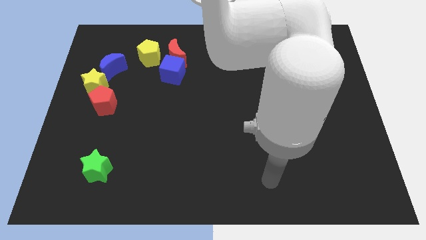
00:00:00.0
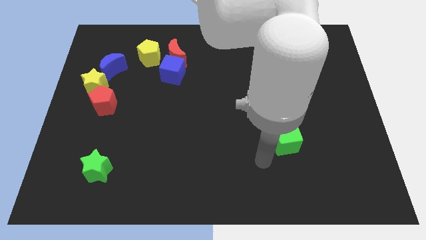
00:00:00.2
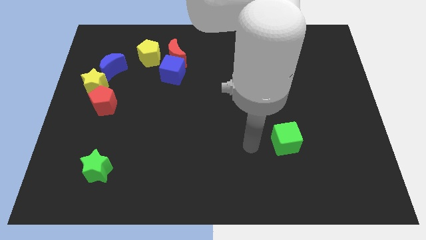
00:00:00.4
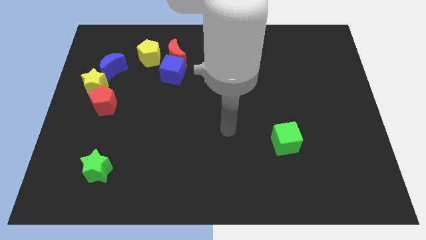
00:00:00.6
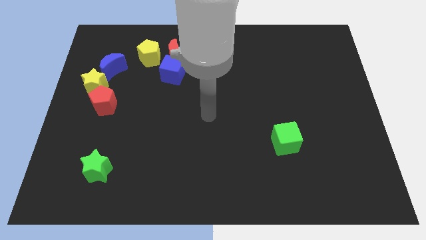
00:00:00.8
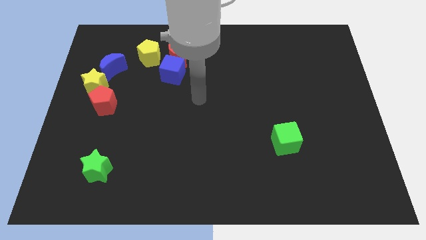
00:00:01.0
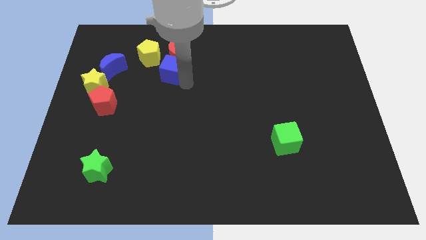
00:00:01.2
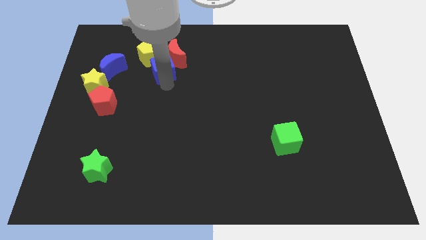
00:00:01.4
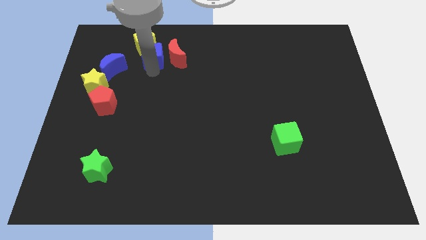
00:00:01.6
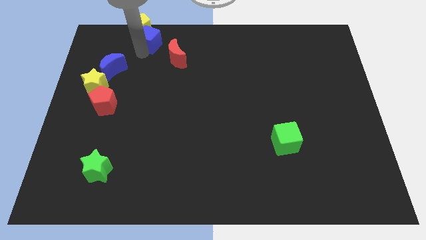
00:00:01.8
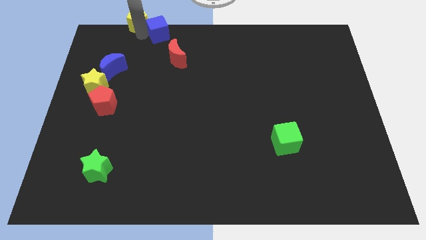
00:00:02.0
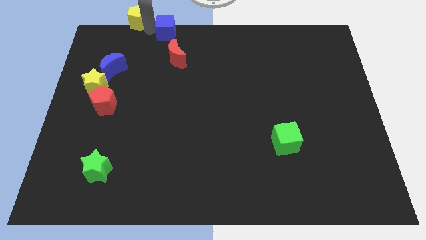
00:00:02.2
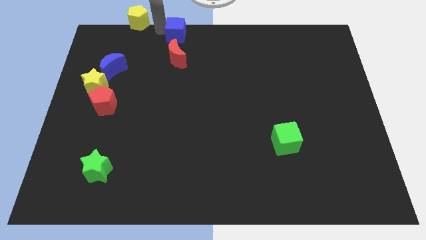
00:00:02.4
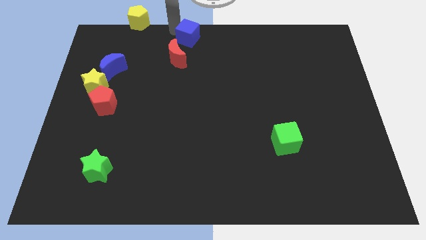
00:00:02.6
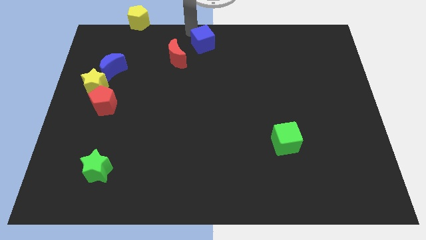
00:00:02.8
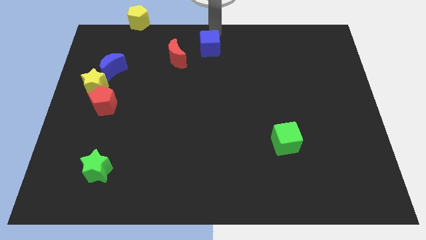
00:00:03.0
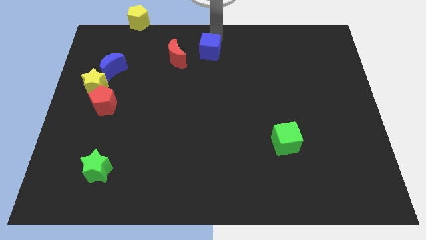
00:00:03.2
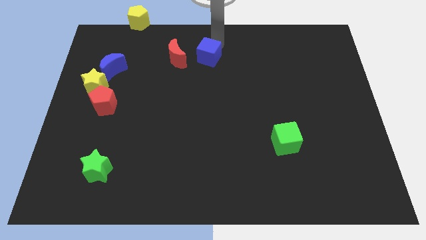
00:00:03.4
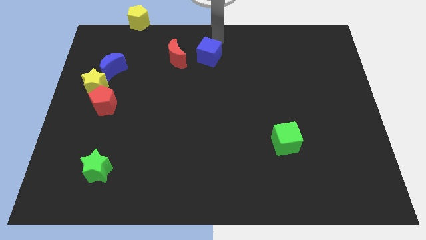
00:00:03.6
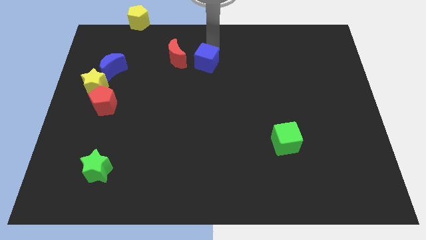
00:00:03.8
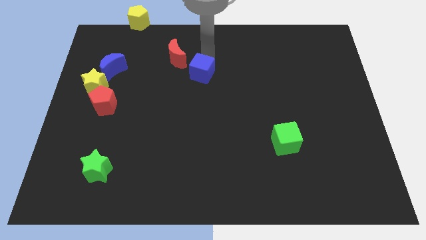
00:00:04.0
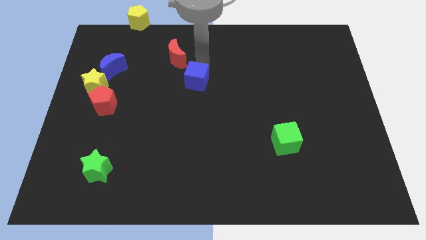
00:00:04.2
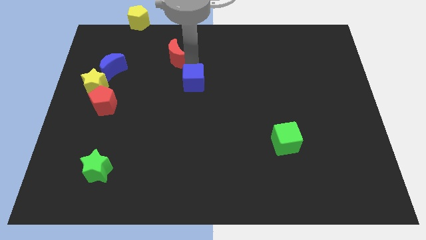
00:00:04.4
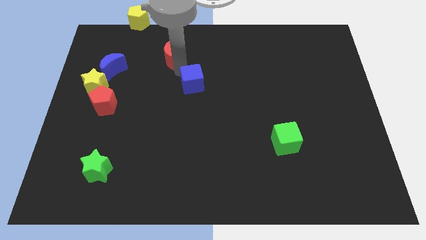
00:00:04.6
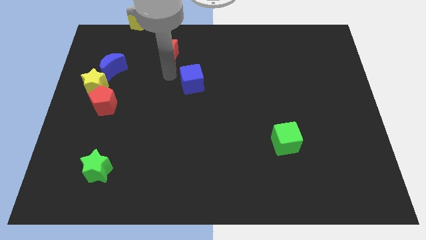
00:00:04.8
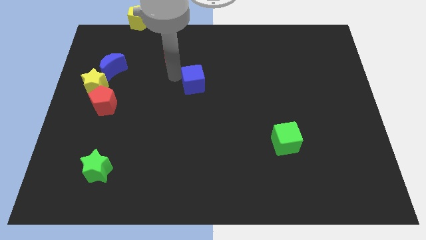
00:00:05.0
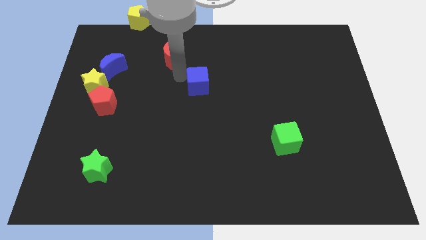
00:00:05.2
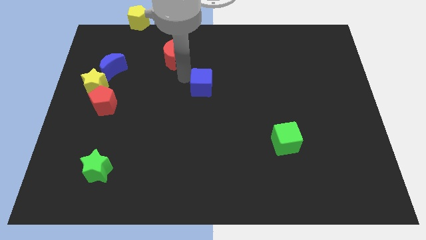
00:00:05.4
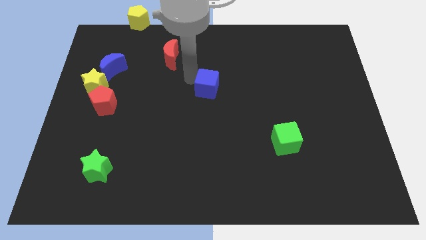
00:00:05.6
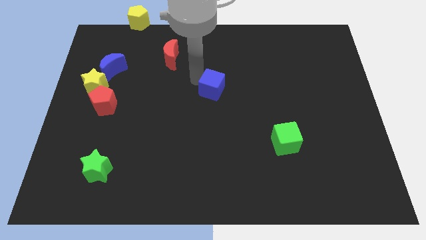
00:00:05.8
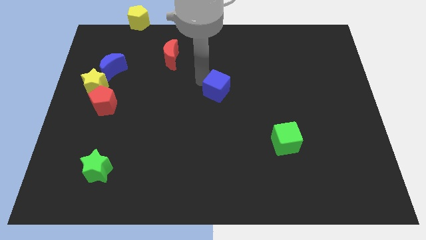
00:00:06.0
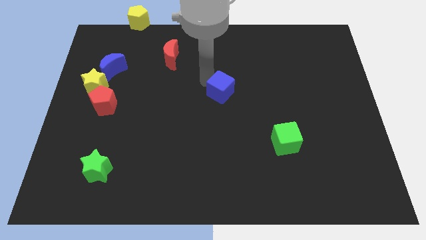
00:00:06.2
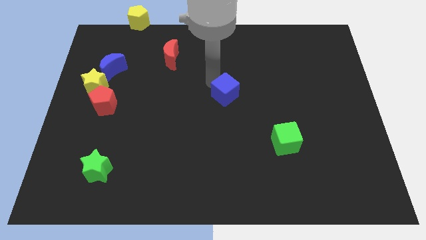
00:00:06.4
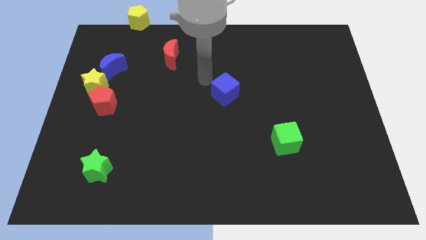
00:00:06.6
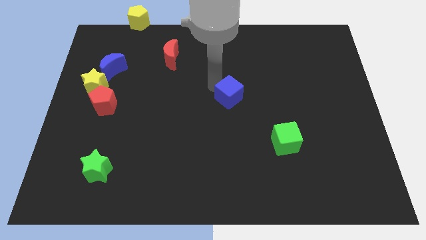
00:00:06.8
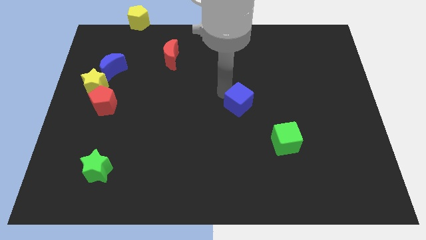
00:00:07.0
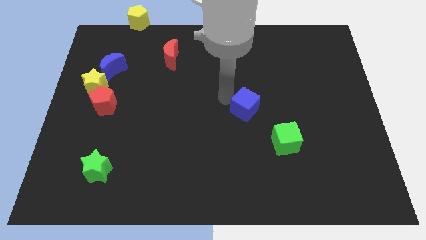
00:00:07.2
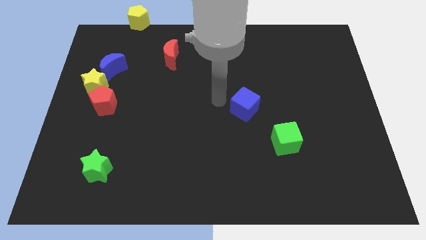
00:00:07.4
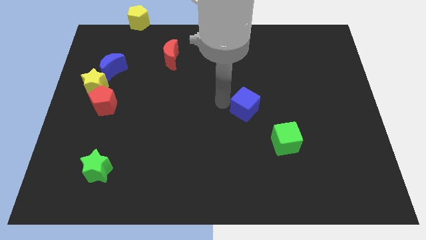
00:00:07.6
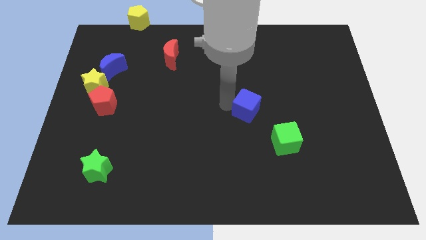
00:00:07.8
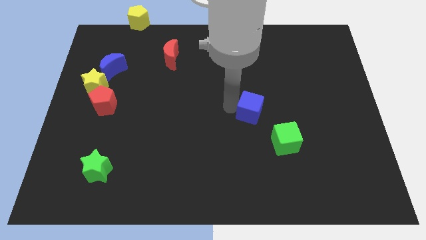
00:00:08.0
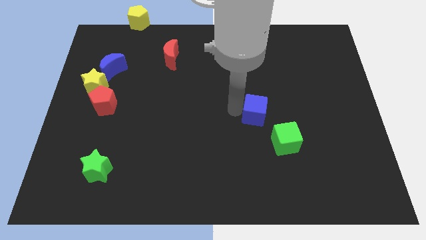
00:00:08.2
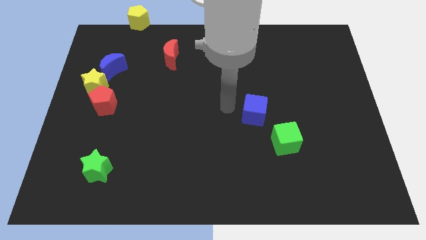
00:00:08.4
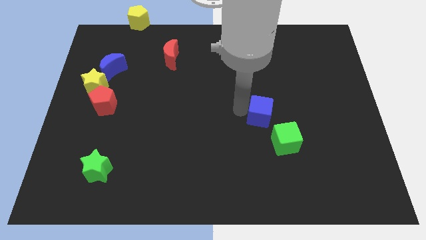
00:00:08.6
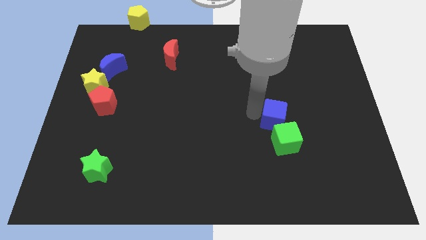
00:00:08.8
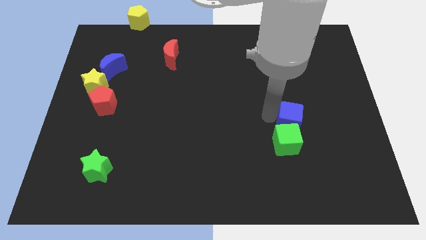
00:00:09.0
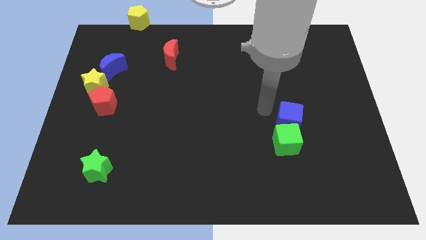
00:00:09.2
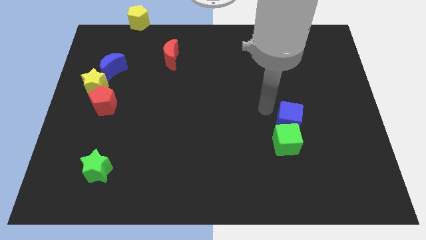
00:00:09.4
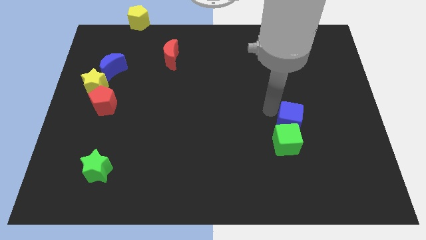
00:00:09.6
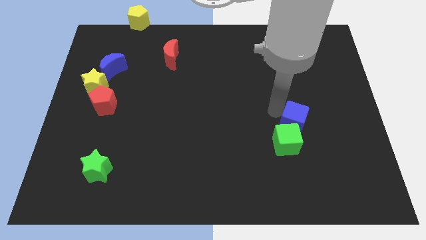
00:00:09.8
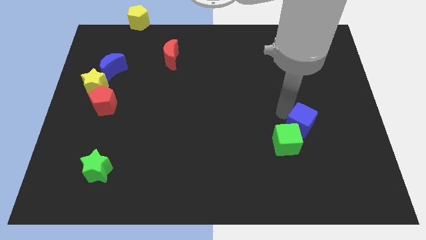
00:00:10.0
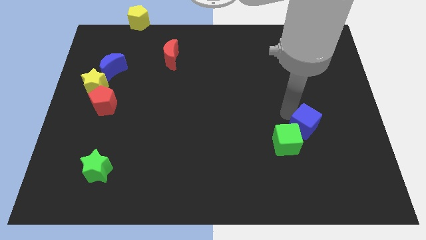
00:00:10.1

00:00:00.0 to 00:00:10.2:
put the blue cube right of the green cube

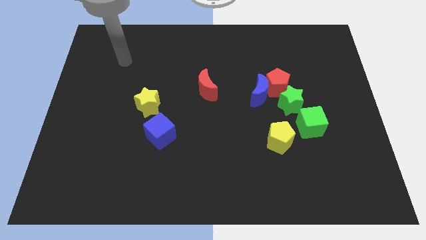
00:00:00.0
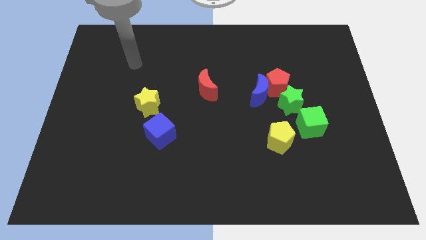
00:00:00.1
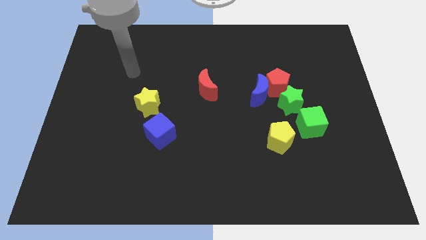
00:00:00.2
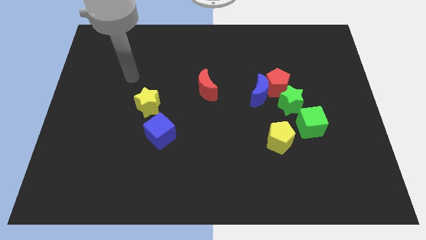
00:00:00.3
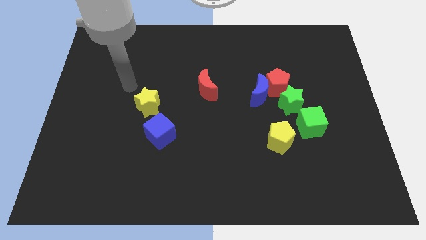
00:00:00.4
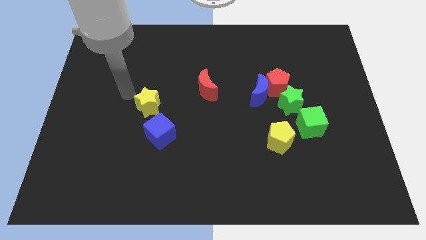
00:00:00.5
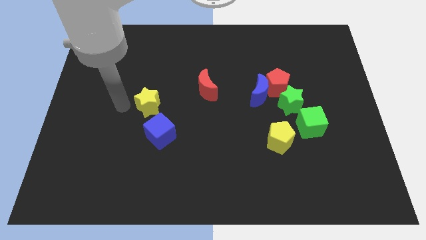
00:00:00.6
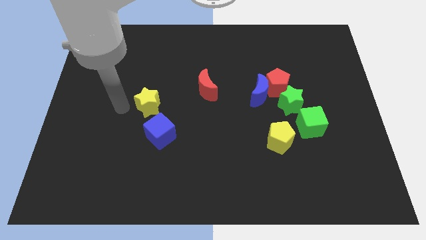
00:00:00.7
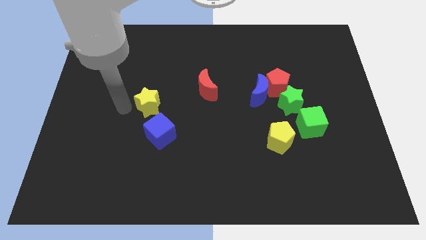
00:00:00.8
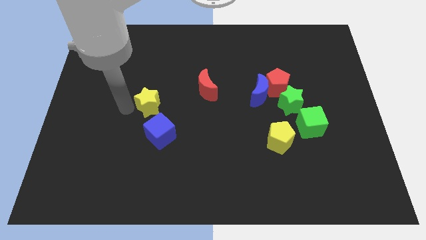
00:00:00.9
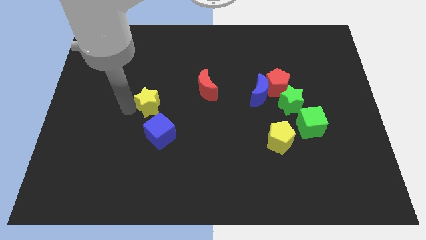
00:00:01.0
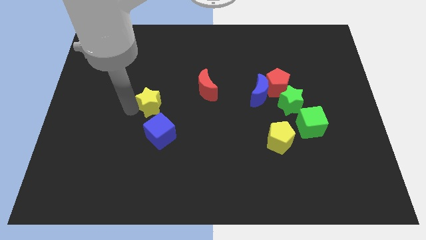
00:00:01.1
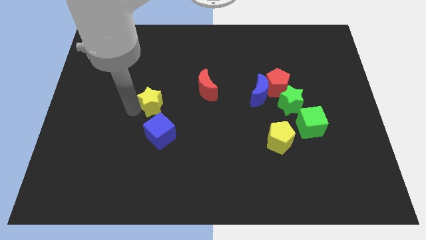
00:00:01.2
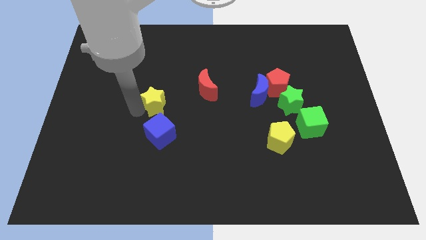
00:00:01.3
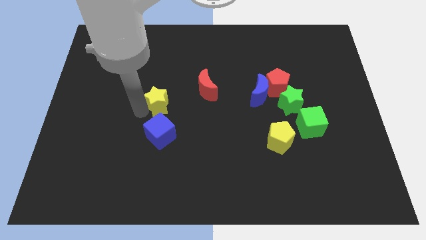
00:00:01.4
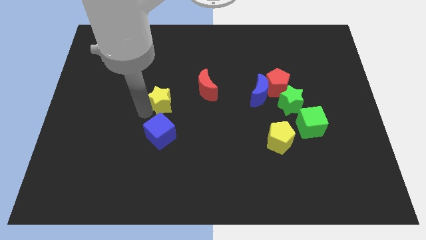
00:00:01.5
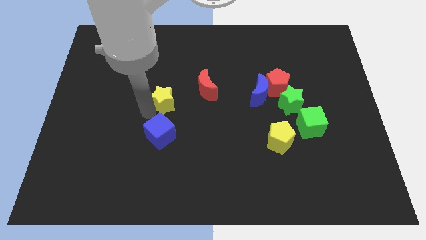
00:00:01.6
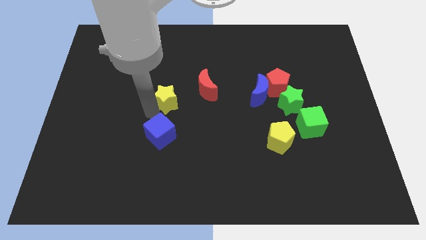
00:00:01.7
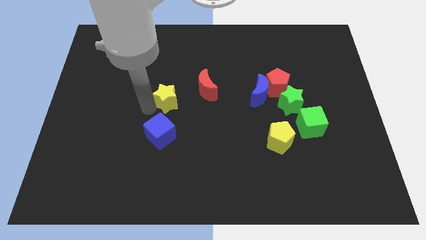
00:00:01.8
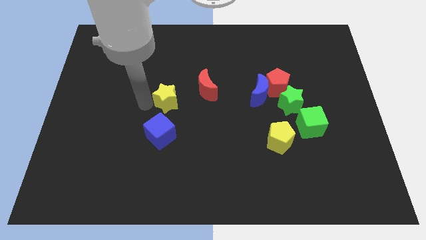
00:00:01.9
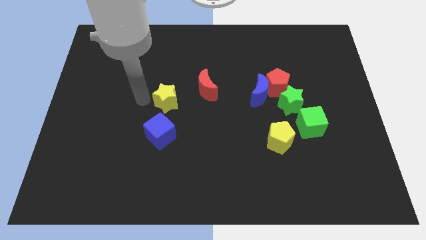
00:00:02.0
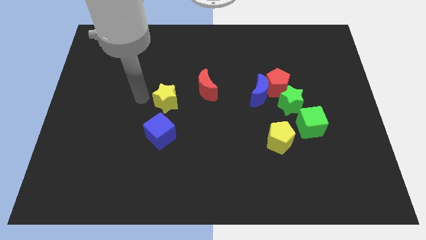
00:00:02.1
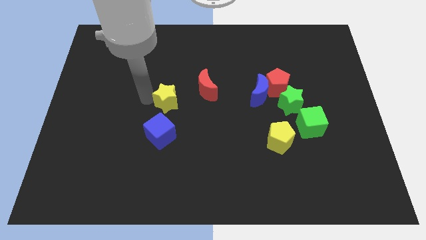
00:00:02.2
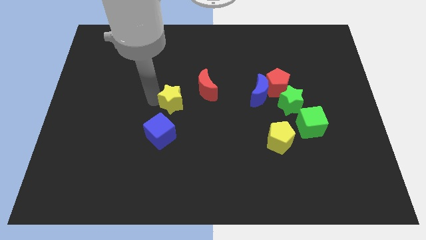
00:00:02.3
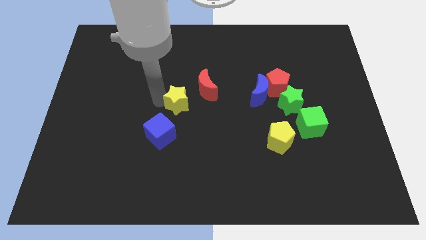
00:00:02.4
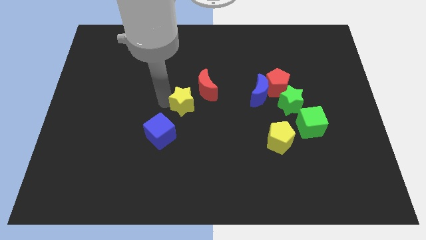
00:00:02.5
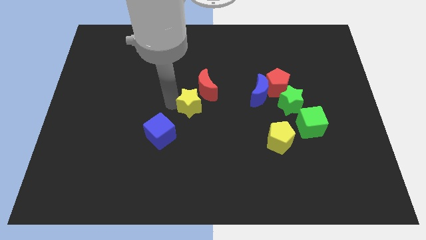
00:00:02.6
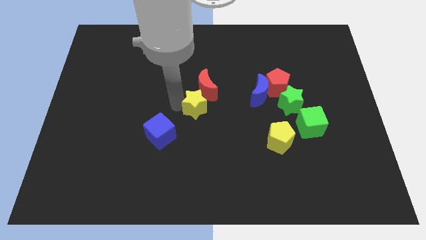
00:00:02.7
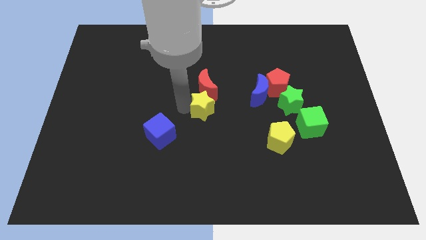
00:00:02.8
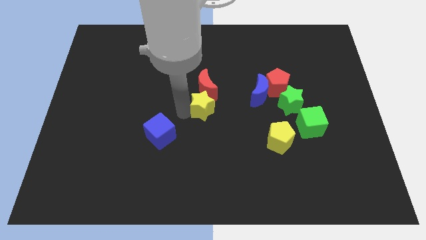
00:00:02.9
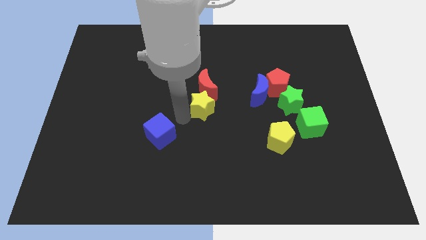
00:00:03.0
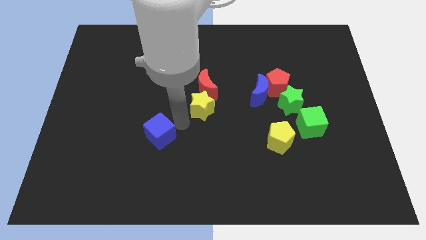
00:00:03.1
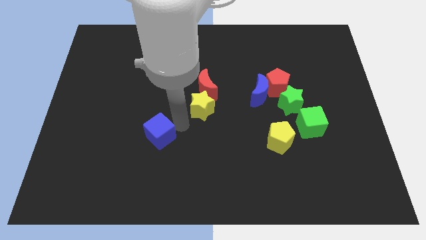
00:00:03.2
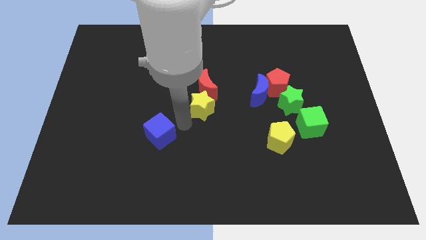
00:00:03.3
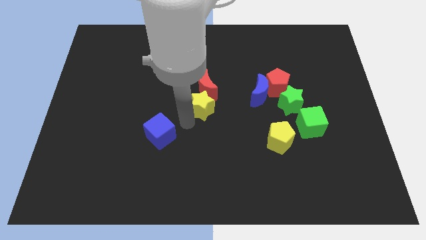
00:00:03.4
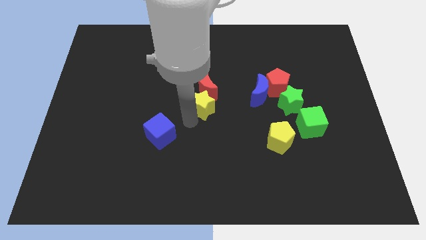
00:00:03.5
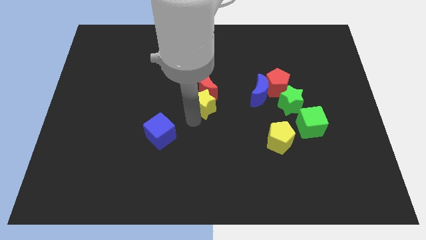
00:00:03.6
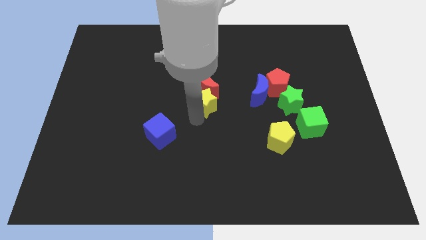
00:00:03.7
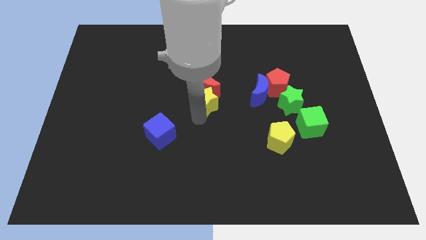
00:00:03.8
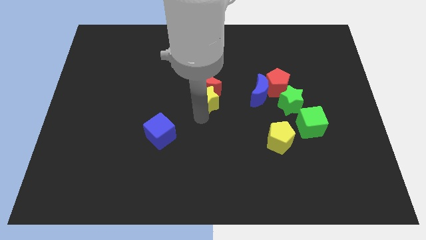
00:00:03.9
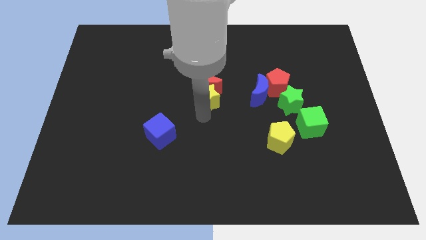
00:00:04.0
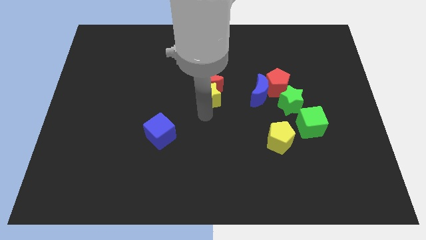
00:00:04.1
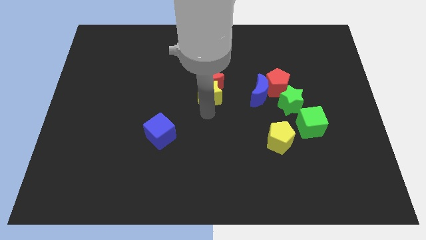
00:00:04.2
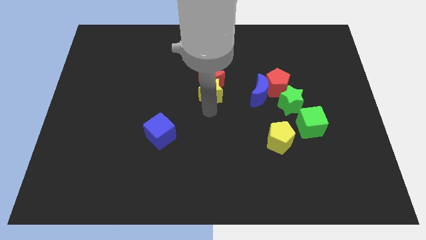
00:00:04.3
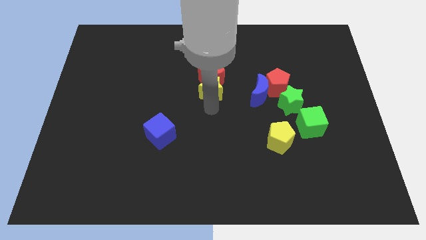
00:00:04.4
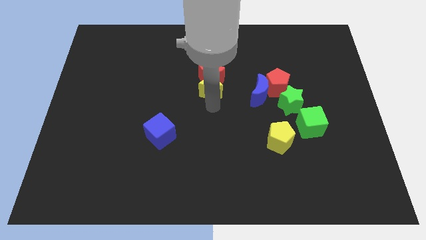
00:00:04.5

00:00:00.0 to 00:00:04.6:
slide the yellow star to the left side of the red pentagon
